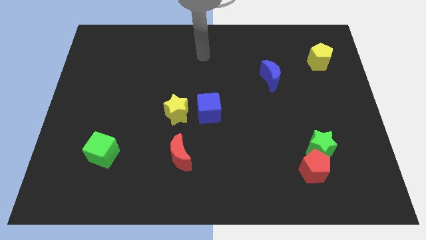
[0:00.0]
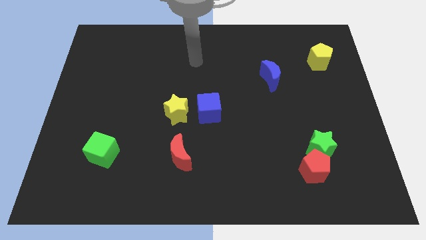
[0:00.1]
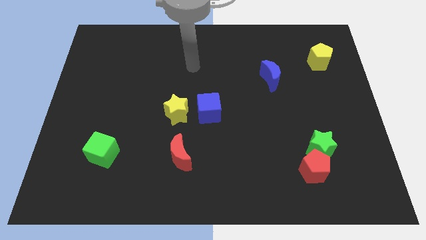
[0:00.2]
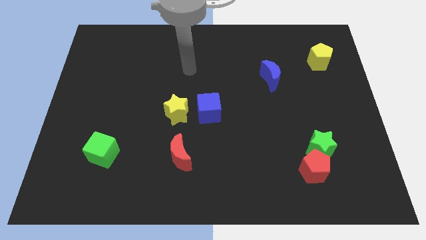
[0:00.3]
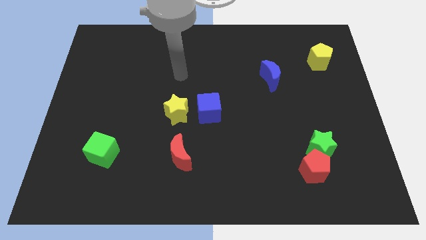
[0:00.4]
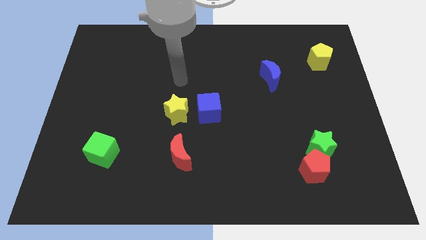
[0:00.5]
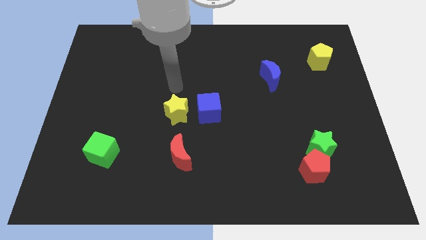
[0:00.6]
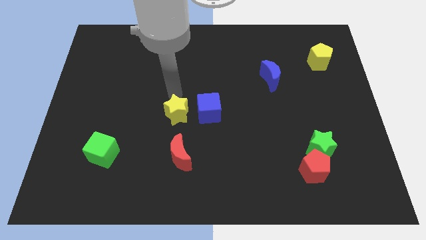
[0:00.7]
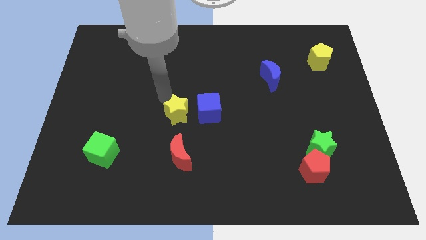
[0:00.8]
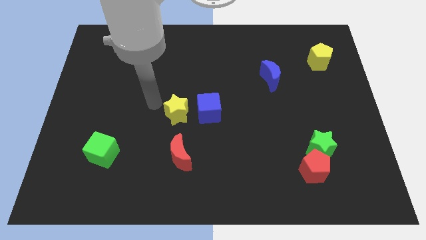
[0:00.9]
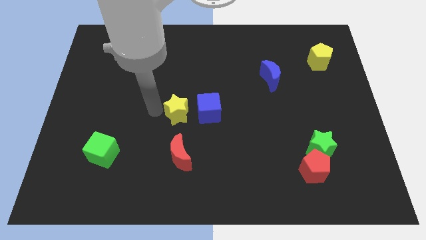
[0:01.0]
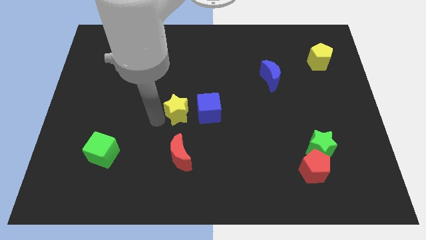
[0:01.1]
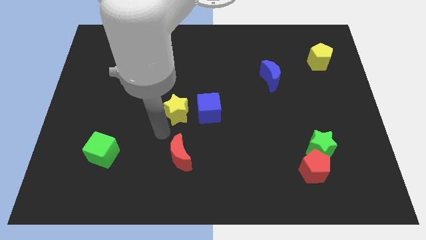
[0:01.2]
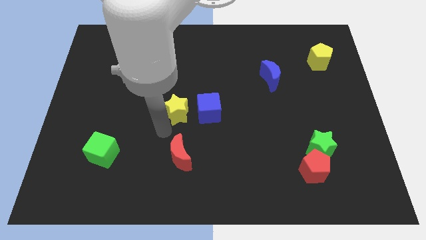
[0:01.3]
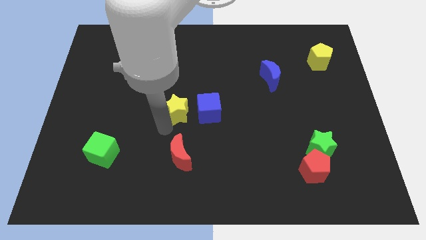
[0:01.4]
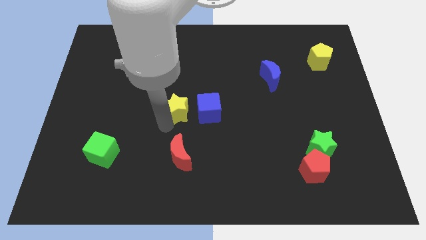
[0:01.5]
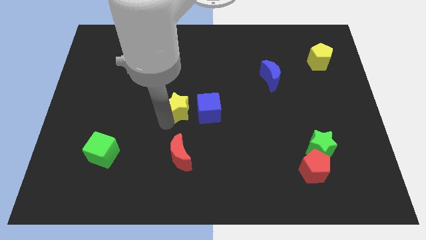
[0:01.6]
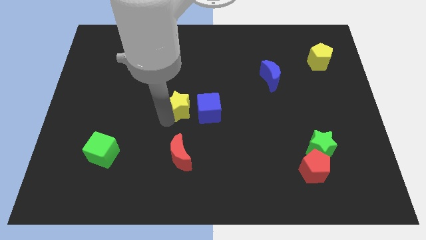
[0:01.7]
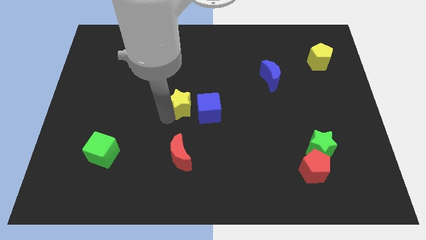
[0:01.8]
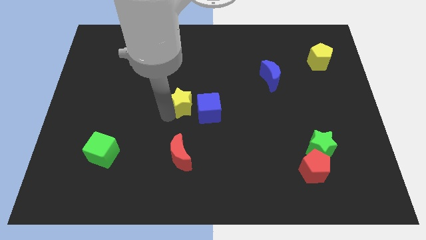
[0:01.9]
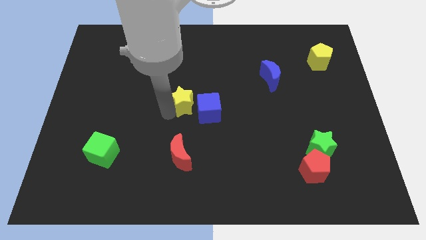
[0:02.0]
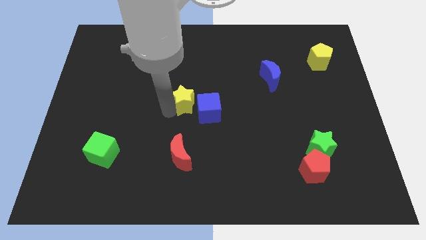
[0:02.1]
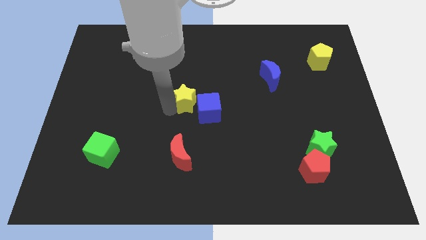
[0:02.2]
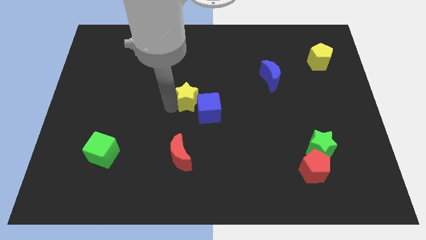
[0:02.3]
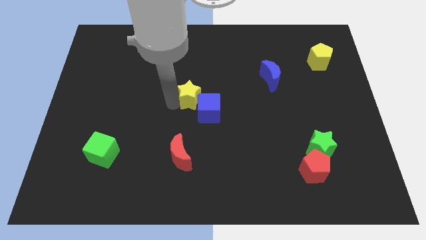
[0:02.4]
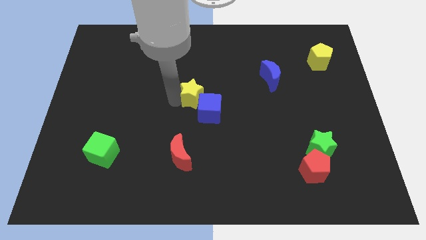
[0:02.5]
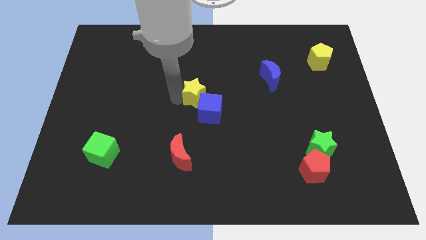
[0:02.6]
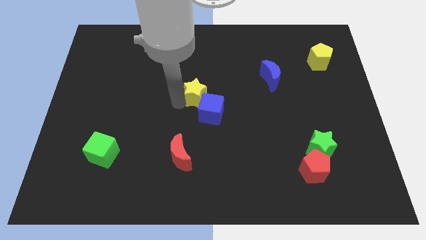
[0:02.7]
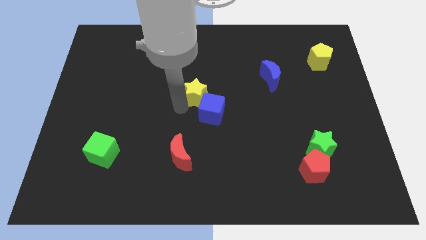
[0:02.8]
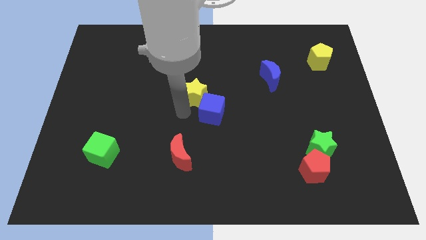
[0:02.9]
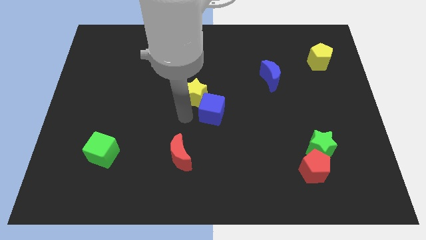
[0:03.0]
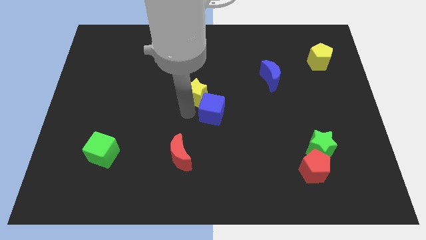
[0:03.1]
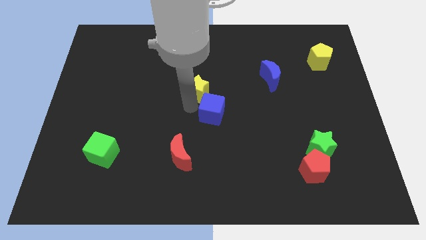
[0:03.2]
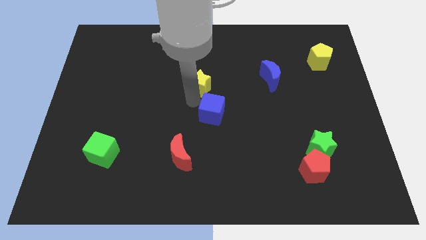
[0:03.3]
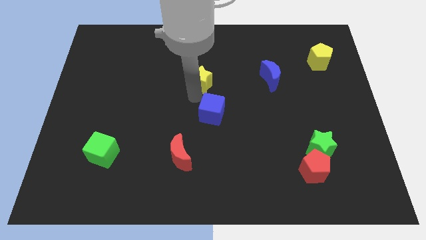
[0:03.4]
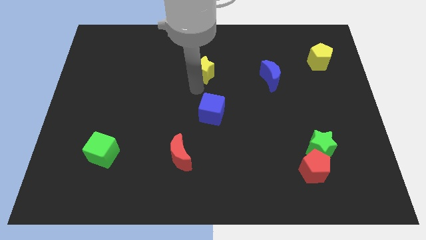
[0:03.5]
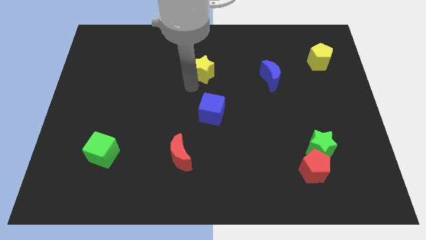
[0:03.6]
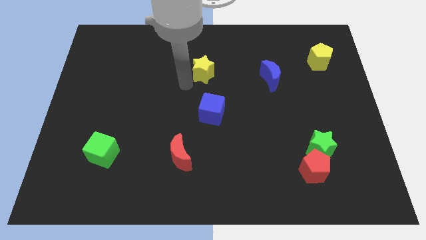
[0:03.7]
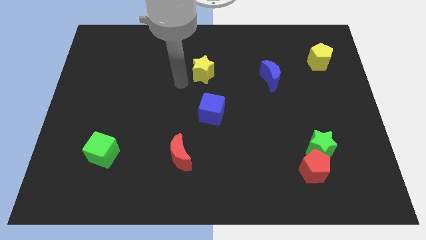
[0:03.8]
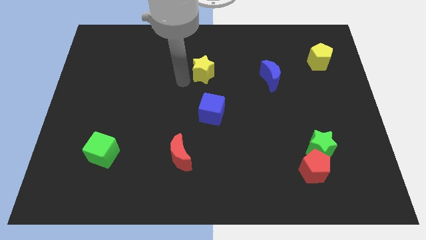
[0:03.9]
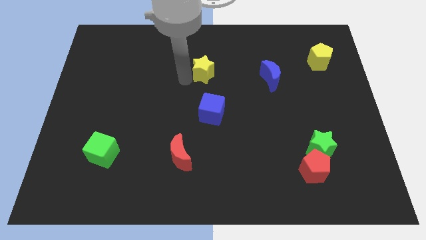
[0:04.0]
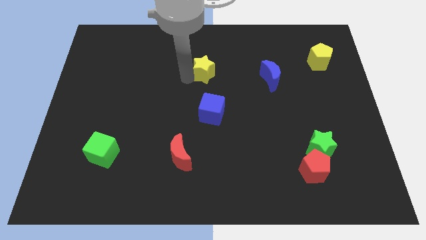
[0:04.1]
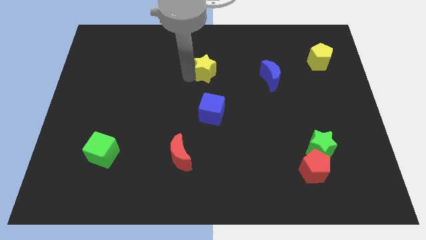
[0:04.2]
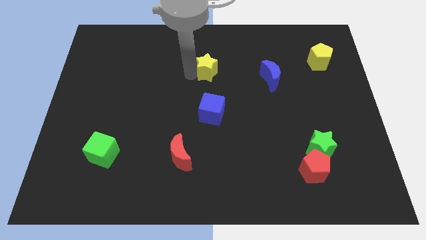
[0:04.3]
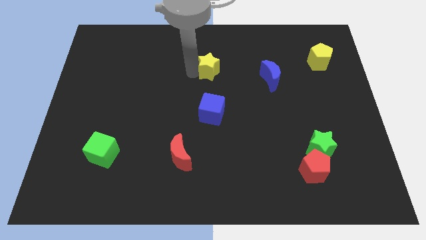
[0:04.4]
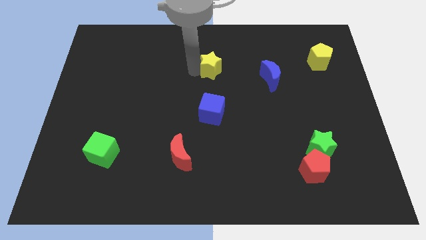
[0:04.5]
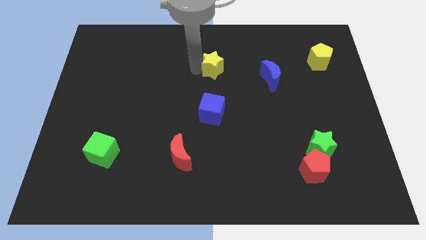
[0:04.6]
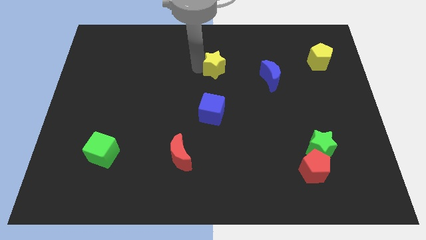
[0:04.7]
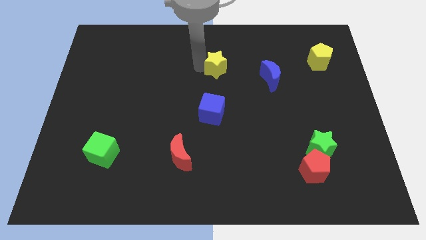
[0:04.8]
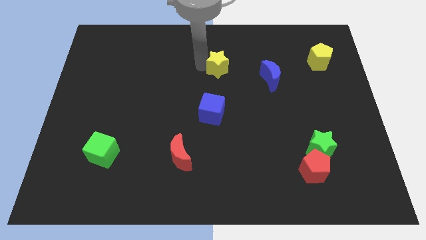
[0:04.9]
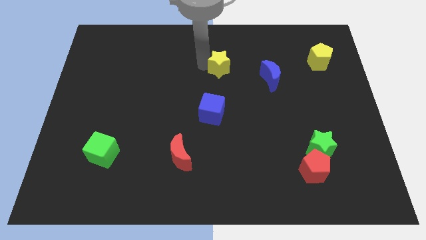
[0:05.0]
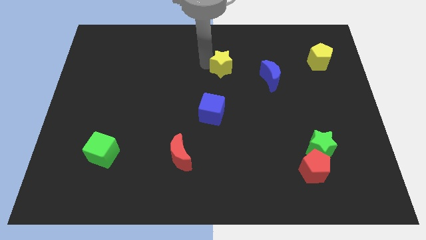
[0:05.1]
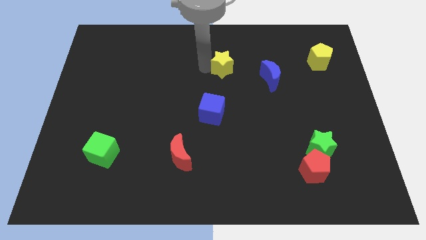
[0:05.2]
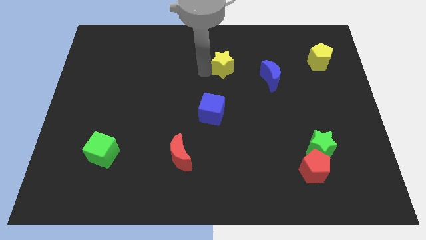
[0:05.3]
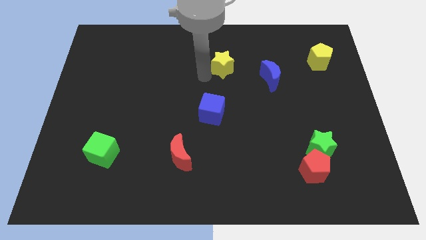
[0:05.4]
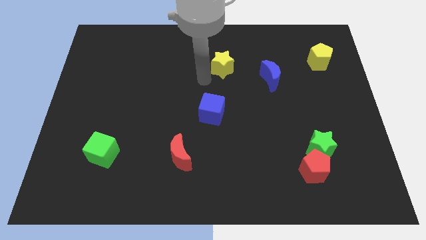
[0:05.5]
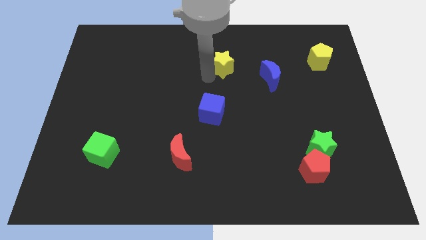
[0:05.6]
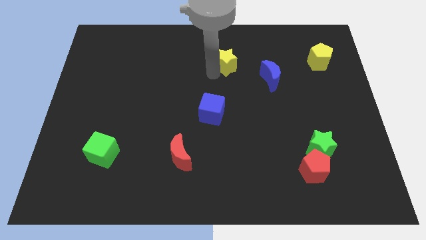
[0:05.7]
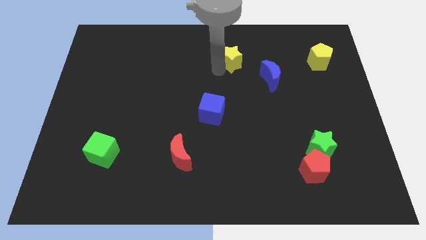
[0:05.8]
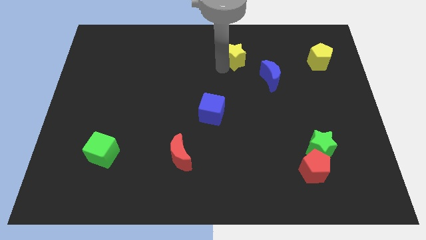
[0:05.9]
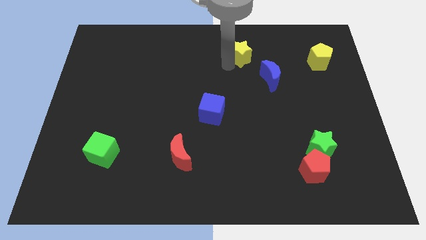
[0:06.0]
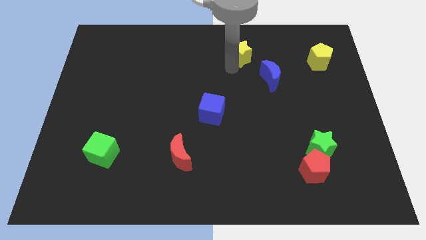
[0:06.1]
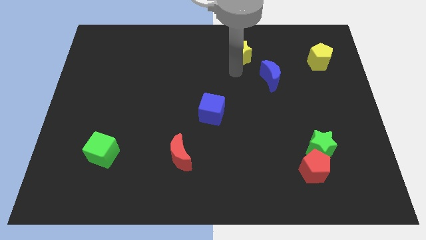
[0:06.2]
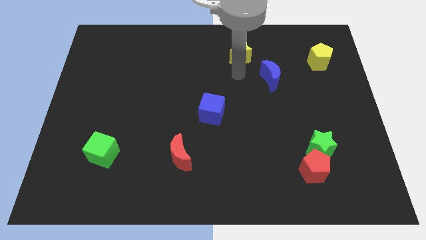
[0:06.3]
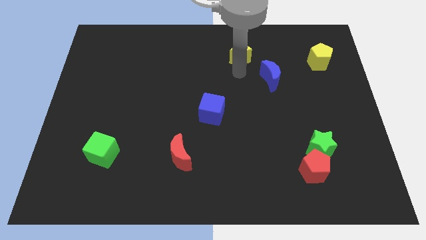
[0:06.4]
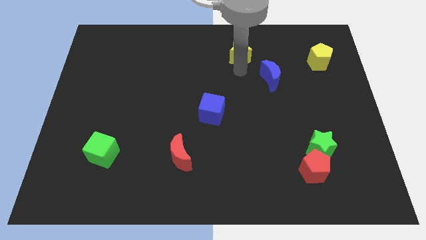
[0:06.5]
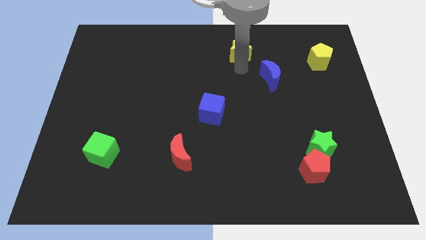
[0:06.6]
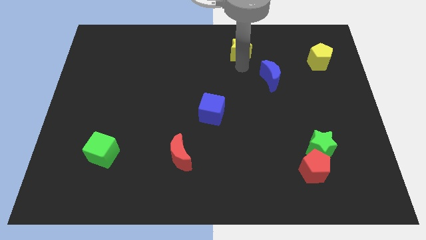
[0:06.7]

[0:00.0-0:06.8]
slide the yellow star to the top side
